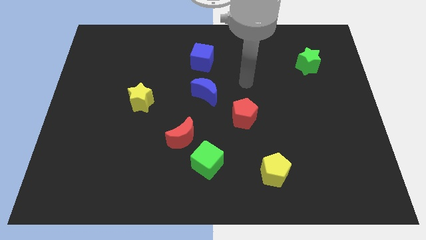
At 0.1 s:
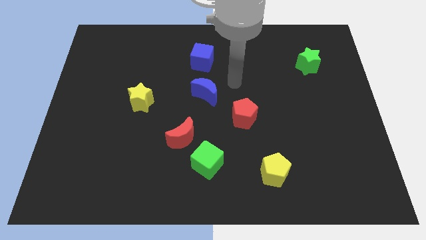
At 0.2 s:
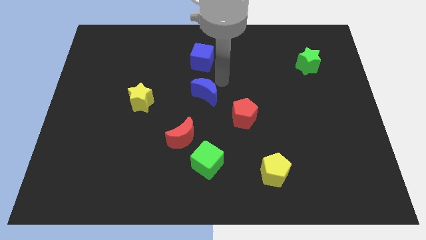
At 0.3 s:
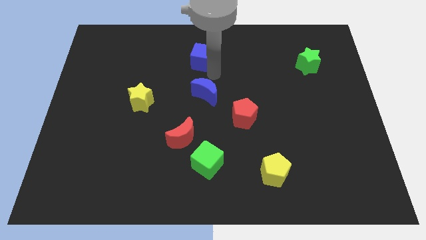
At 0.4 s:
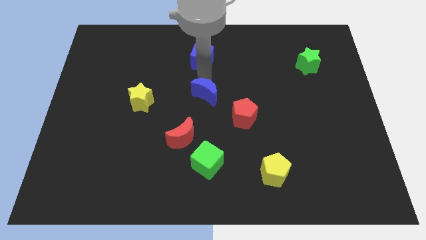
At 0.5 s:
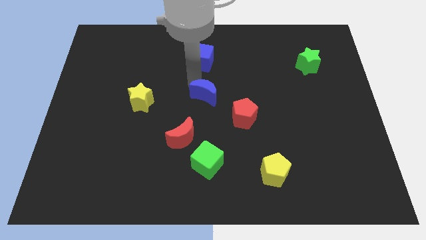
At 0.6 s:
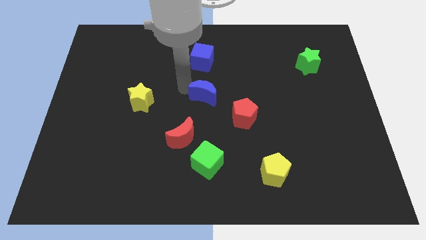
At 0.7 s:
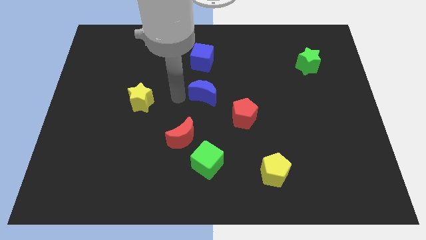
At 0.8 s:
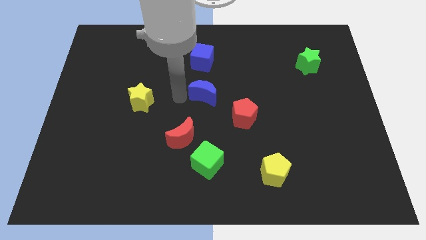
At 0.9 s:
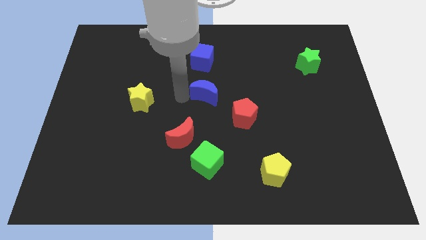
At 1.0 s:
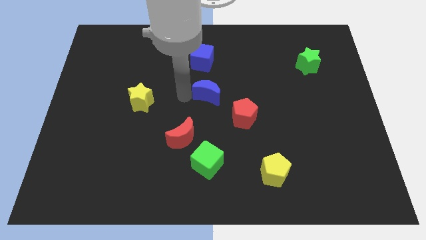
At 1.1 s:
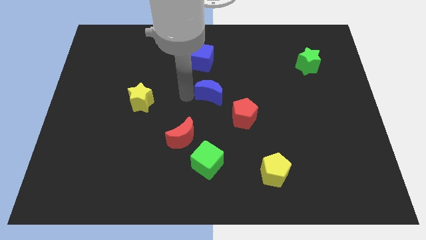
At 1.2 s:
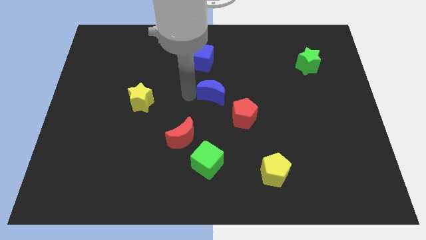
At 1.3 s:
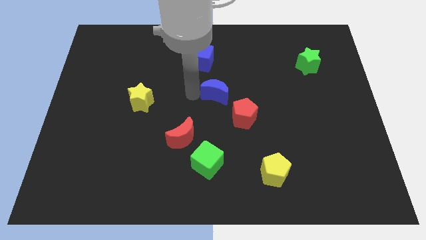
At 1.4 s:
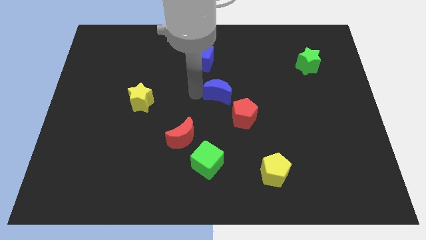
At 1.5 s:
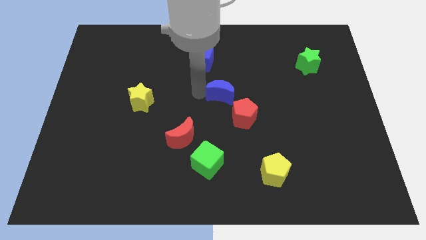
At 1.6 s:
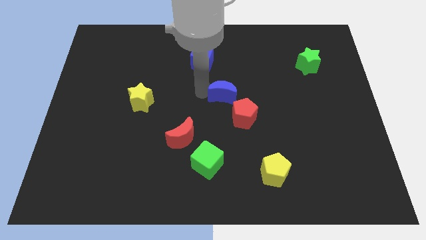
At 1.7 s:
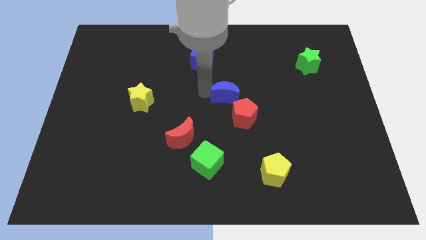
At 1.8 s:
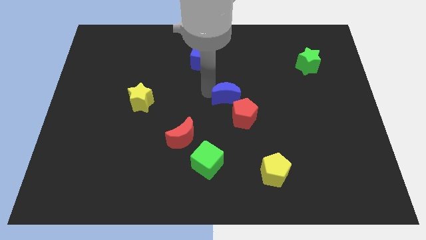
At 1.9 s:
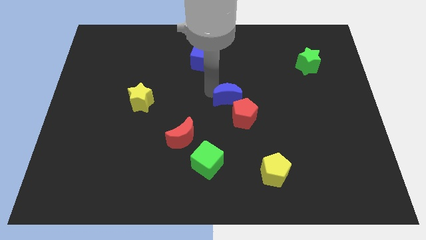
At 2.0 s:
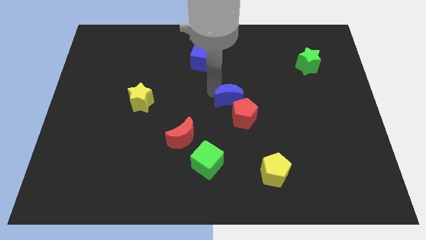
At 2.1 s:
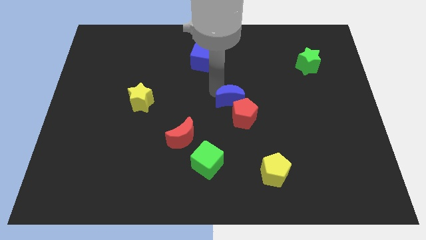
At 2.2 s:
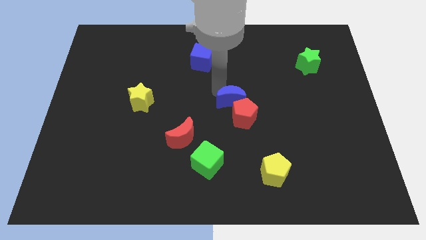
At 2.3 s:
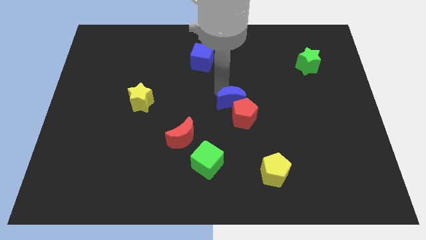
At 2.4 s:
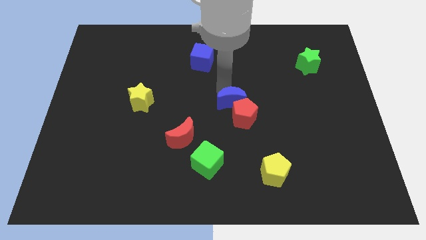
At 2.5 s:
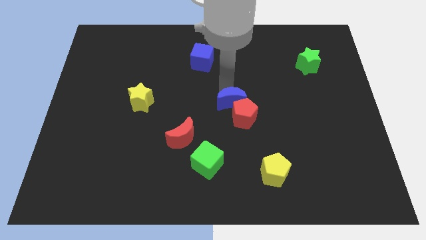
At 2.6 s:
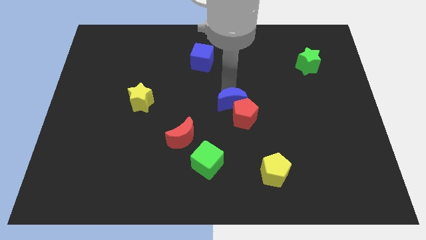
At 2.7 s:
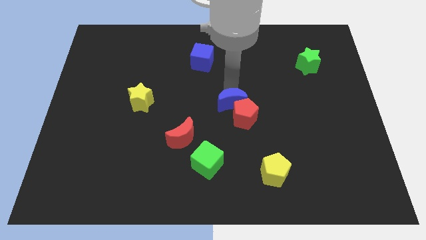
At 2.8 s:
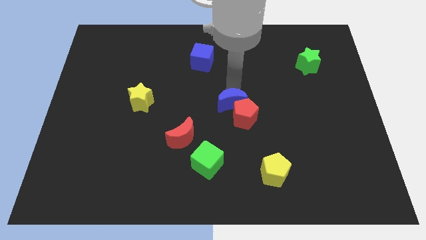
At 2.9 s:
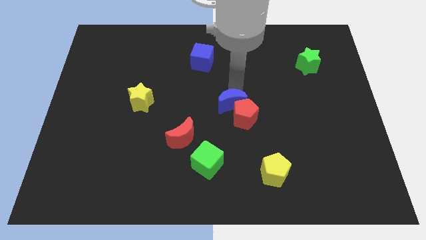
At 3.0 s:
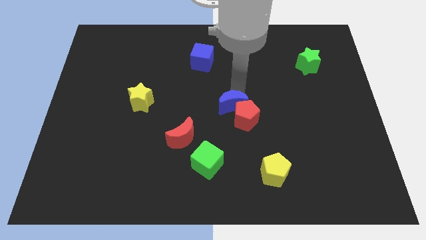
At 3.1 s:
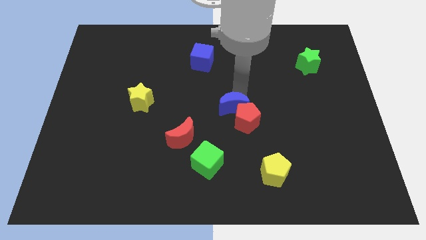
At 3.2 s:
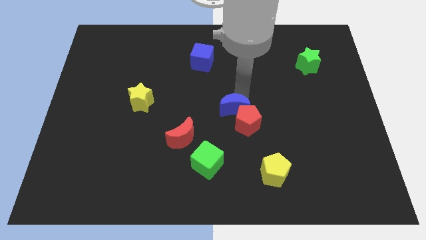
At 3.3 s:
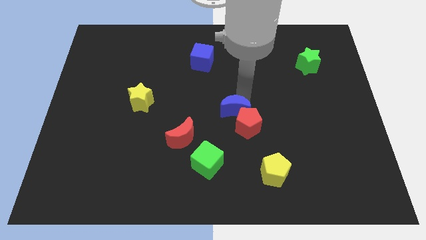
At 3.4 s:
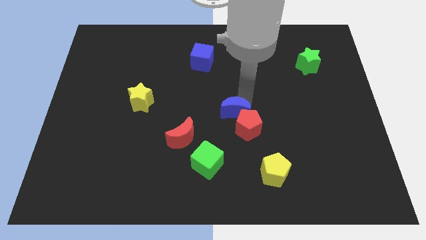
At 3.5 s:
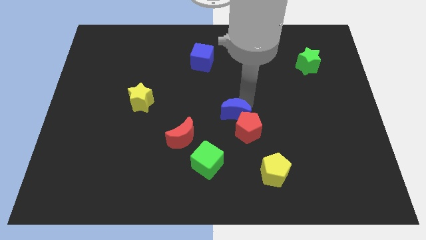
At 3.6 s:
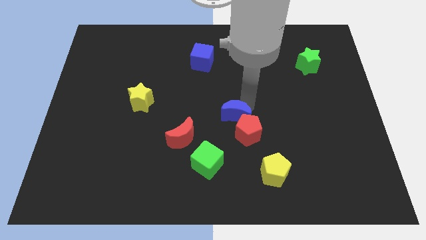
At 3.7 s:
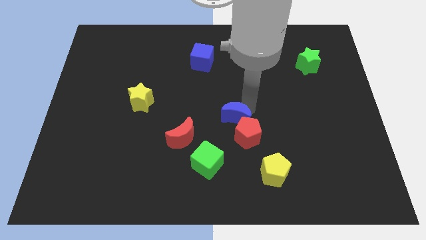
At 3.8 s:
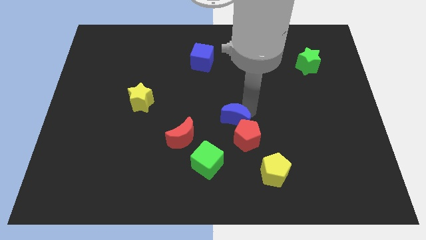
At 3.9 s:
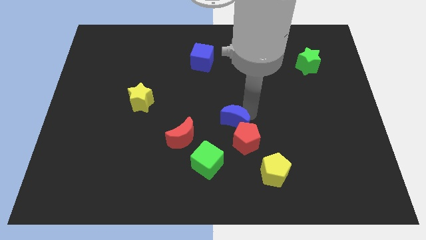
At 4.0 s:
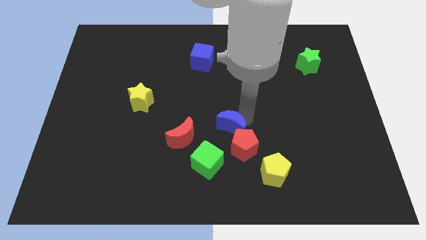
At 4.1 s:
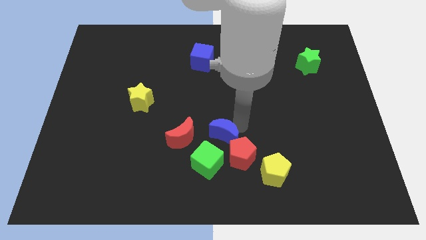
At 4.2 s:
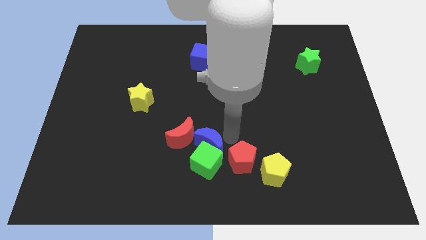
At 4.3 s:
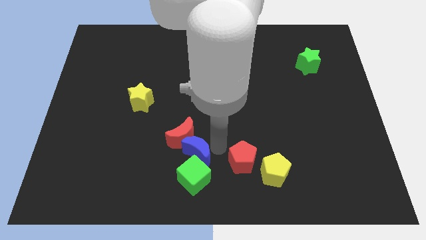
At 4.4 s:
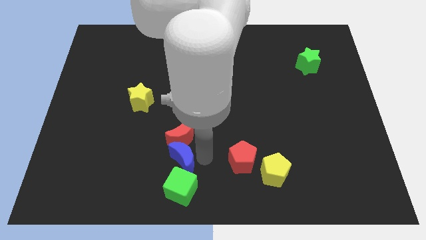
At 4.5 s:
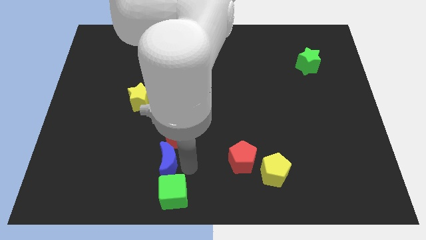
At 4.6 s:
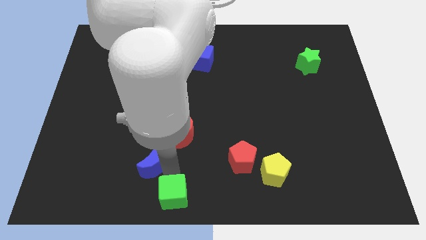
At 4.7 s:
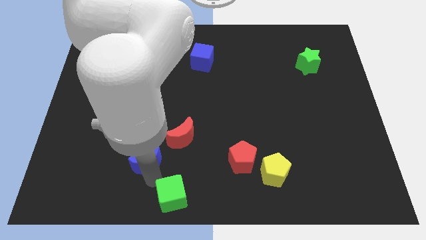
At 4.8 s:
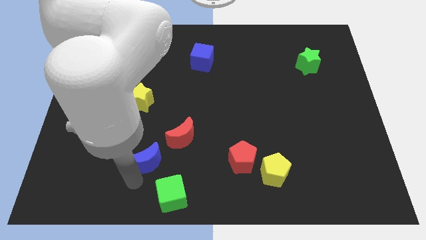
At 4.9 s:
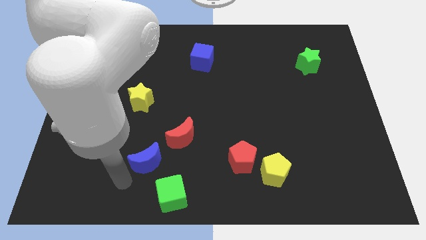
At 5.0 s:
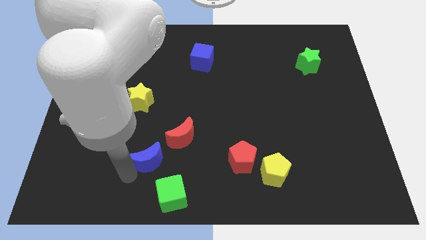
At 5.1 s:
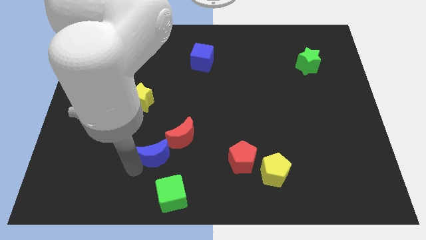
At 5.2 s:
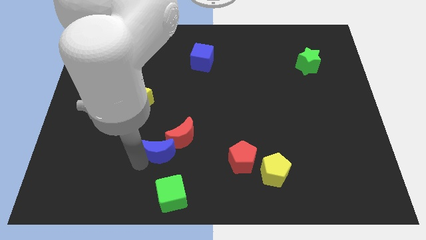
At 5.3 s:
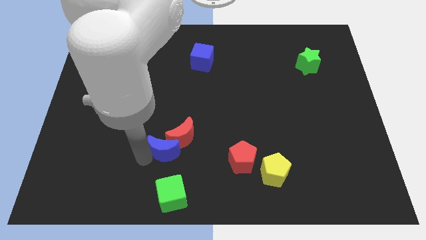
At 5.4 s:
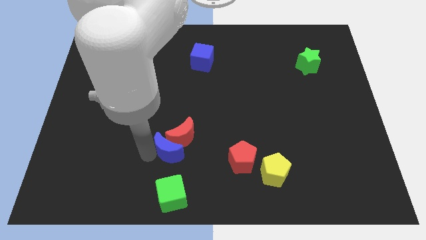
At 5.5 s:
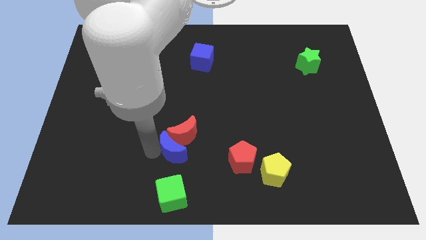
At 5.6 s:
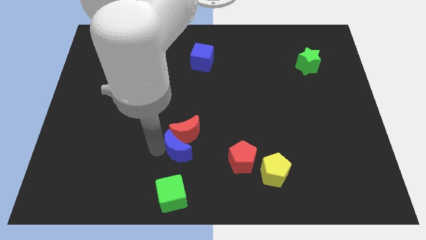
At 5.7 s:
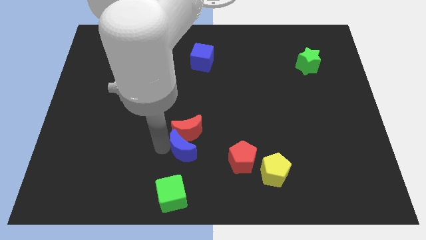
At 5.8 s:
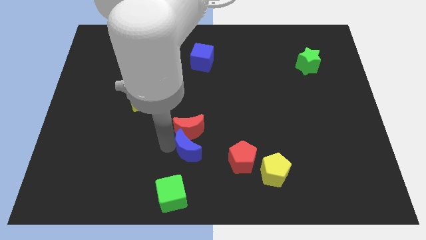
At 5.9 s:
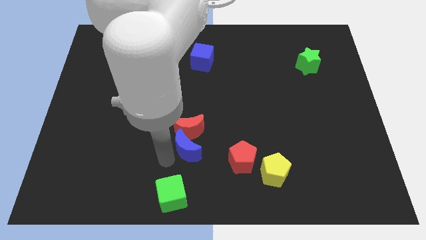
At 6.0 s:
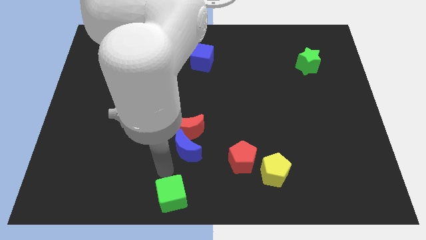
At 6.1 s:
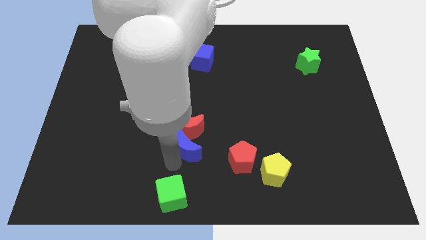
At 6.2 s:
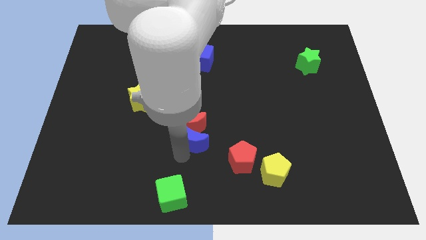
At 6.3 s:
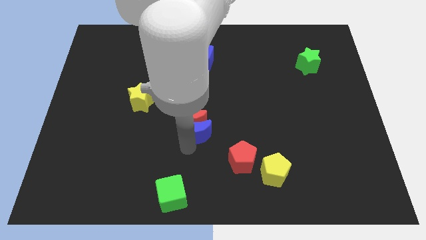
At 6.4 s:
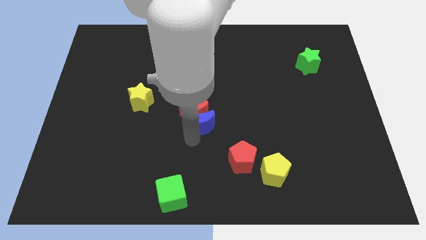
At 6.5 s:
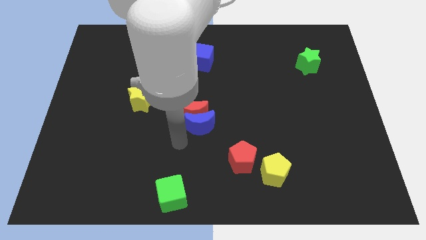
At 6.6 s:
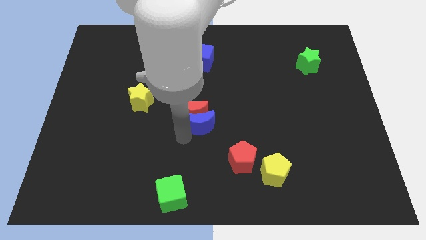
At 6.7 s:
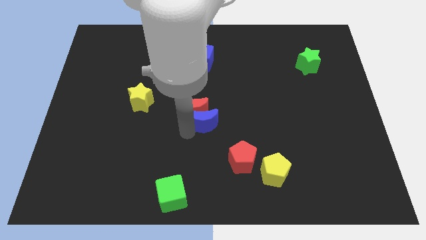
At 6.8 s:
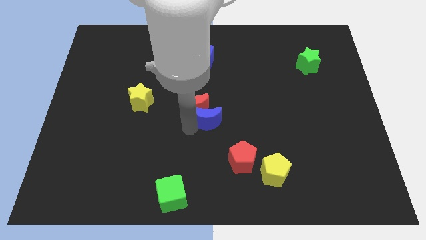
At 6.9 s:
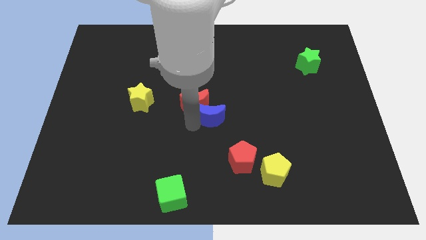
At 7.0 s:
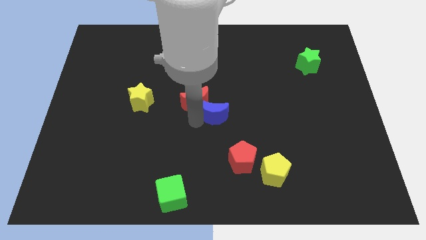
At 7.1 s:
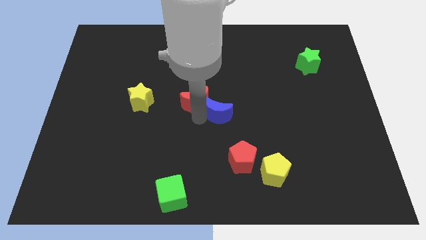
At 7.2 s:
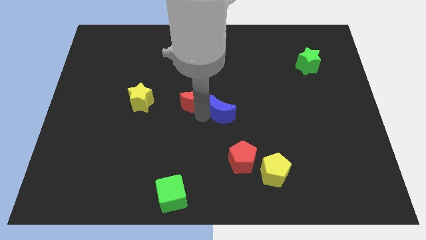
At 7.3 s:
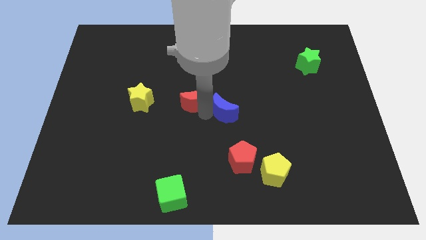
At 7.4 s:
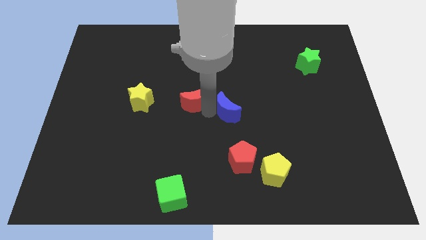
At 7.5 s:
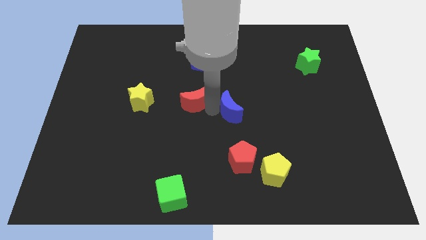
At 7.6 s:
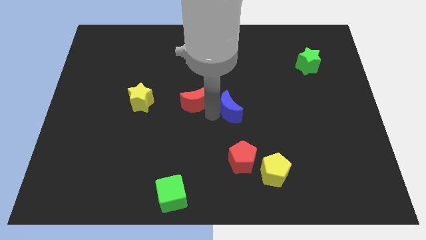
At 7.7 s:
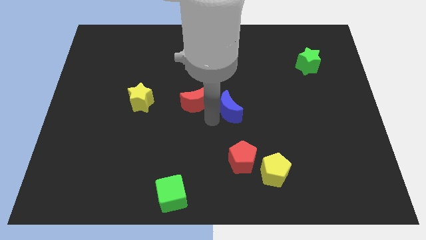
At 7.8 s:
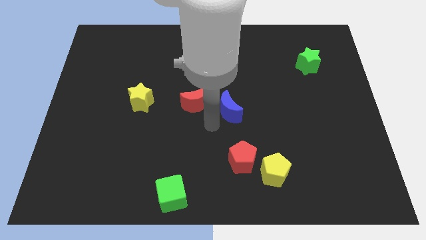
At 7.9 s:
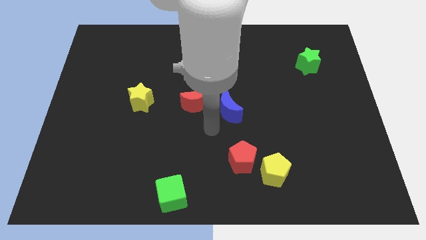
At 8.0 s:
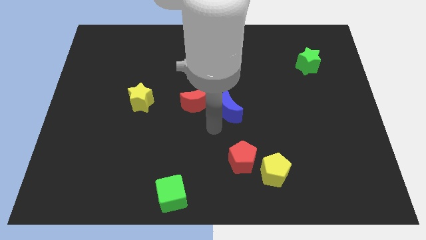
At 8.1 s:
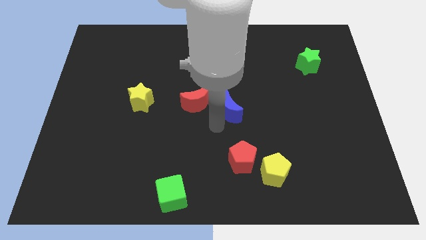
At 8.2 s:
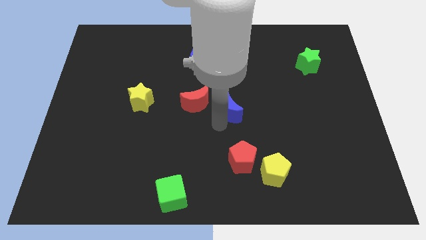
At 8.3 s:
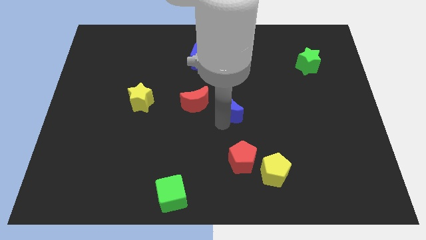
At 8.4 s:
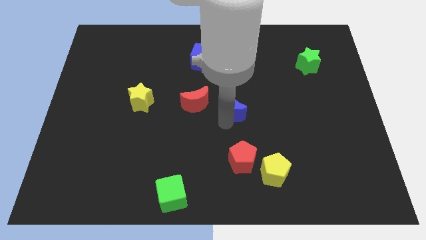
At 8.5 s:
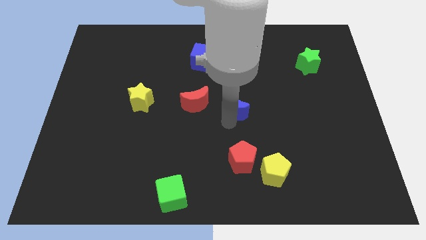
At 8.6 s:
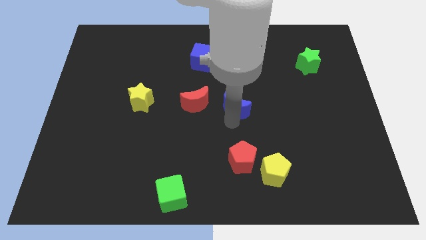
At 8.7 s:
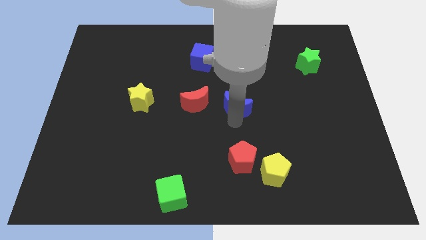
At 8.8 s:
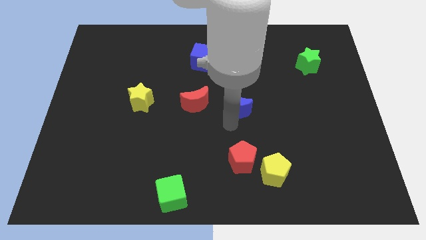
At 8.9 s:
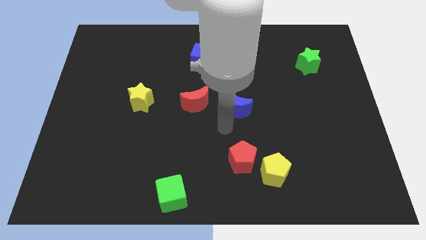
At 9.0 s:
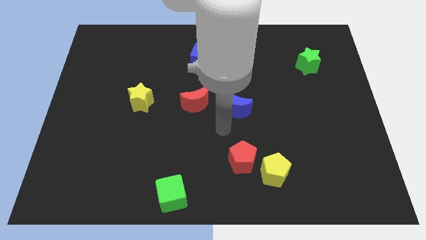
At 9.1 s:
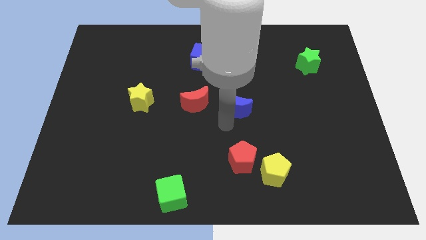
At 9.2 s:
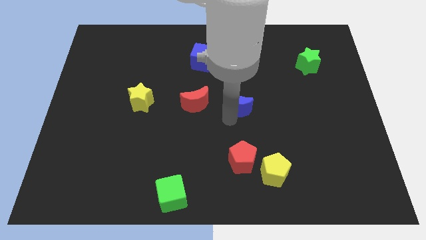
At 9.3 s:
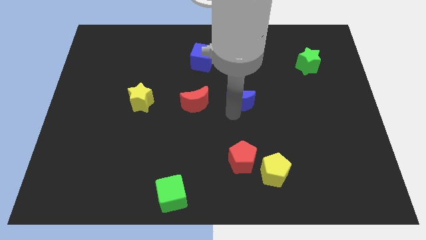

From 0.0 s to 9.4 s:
move the blue moon to the right a little bit
